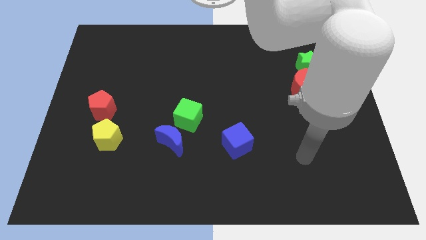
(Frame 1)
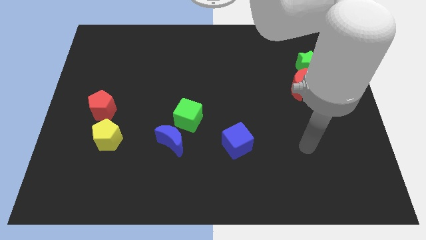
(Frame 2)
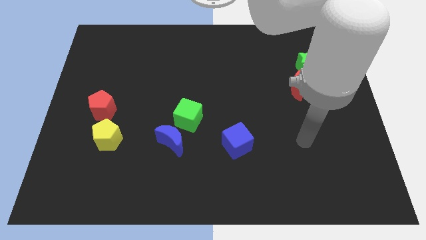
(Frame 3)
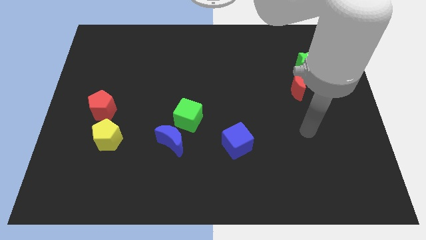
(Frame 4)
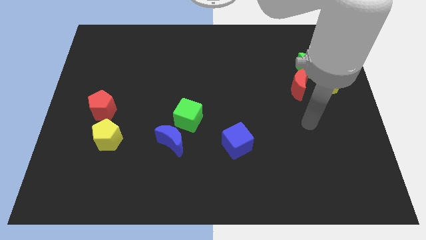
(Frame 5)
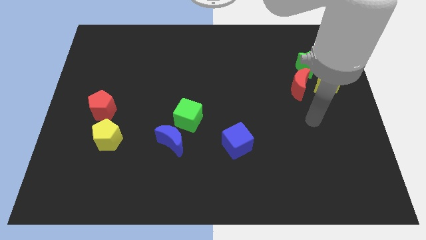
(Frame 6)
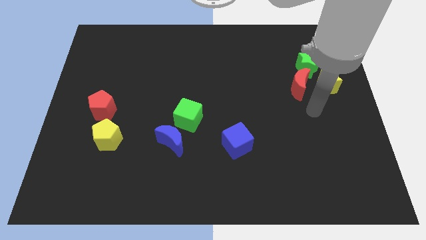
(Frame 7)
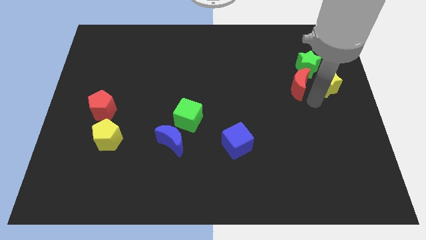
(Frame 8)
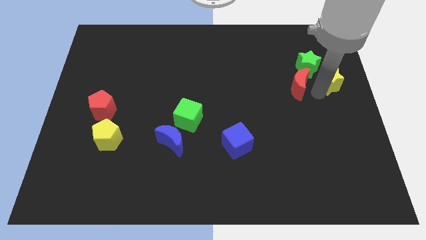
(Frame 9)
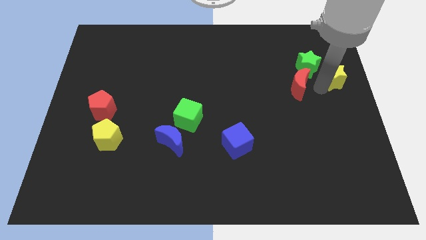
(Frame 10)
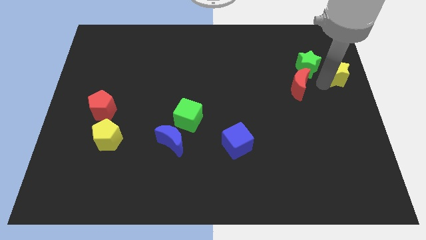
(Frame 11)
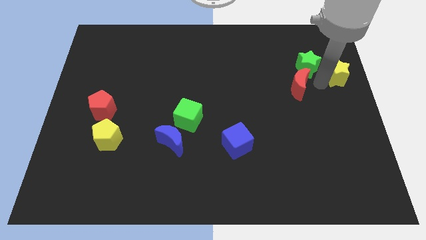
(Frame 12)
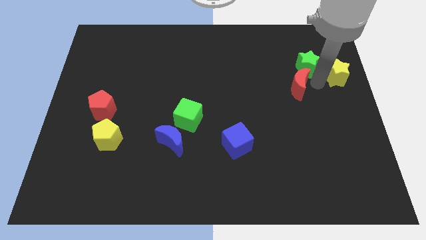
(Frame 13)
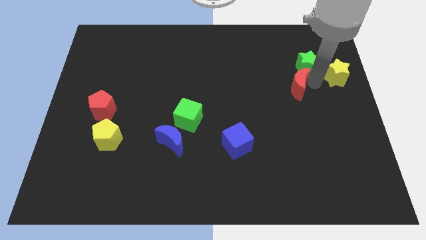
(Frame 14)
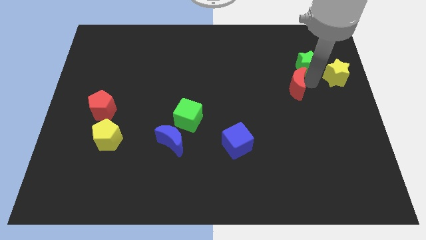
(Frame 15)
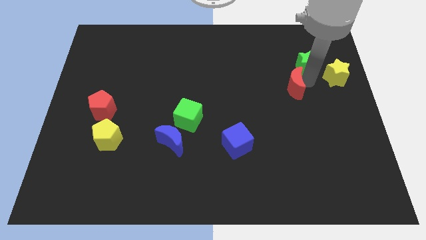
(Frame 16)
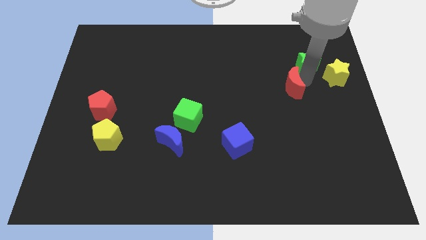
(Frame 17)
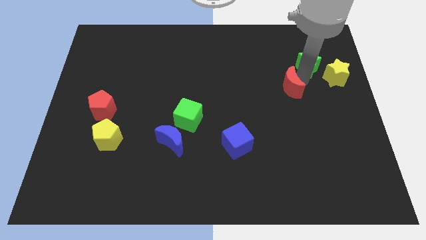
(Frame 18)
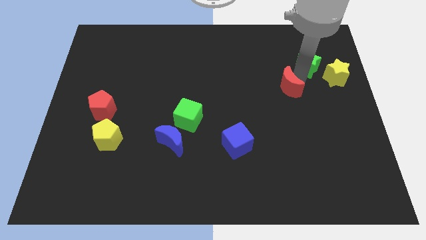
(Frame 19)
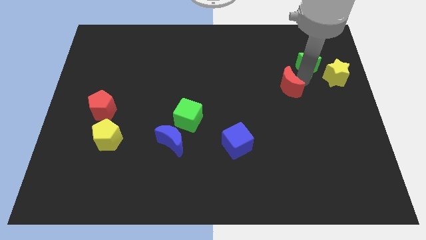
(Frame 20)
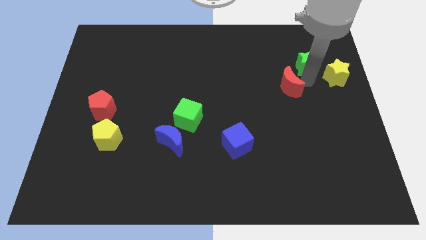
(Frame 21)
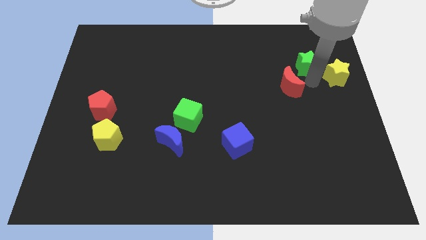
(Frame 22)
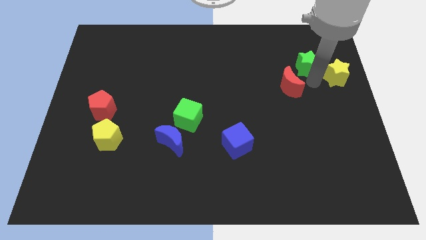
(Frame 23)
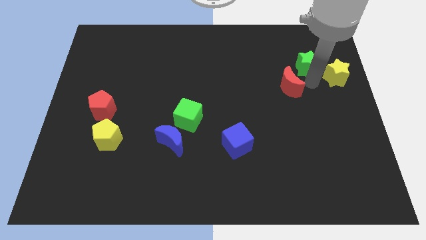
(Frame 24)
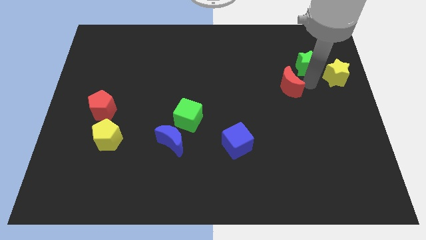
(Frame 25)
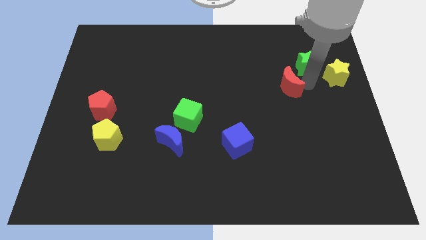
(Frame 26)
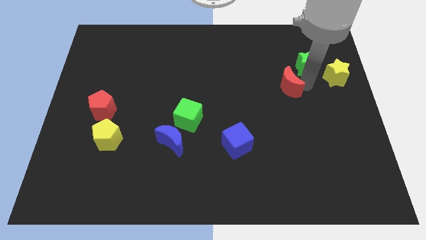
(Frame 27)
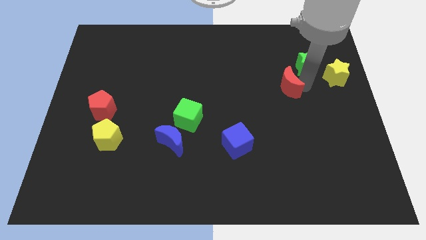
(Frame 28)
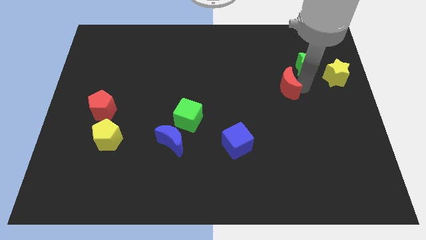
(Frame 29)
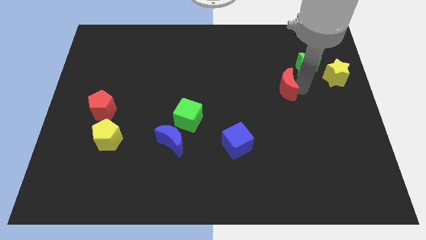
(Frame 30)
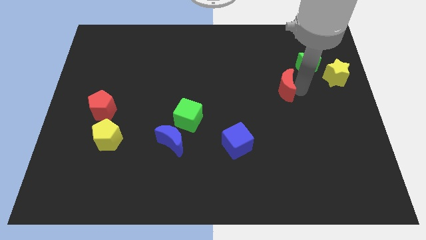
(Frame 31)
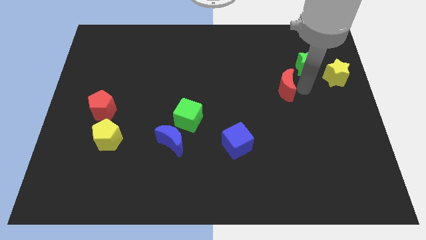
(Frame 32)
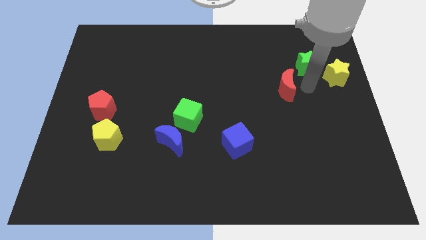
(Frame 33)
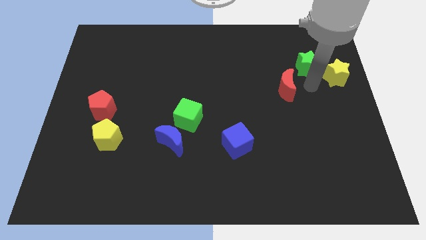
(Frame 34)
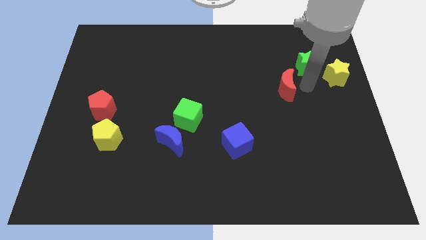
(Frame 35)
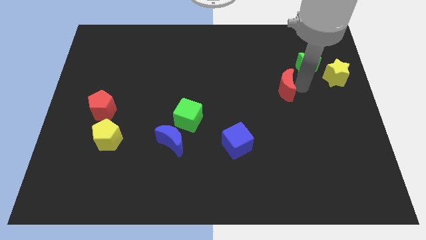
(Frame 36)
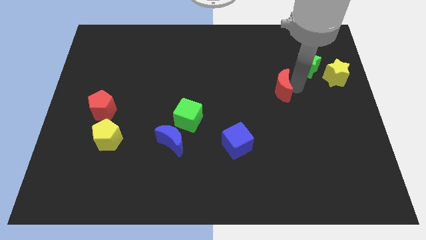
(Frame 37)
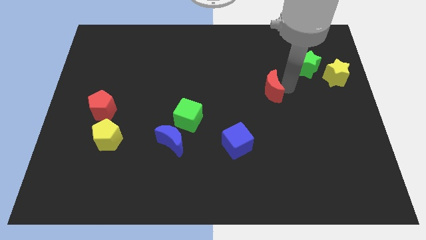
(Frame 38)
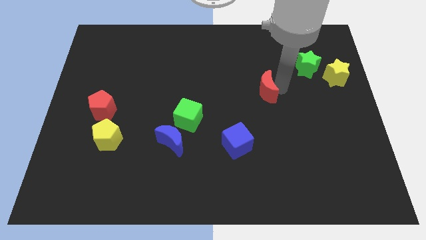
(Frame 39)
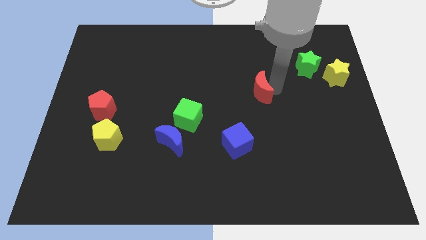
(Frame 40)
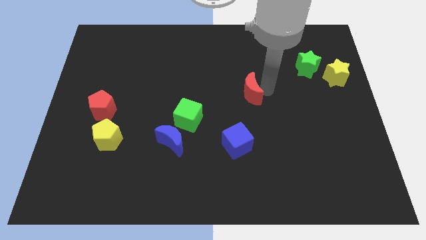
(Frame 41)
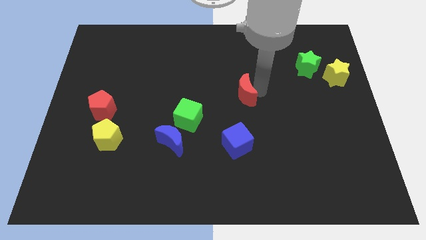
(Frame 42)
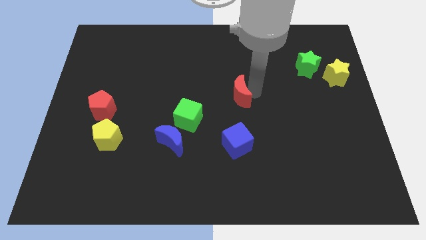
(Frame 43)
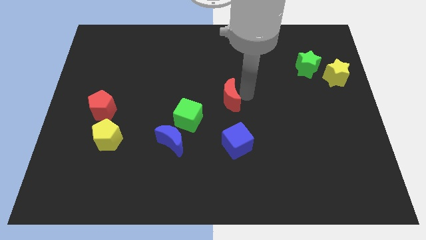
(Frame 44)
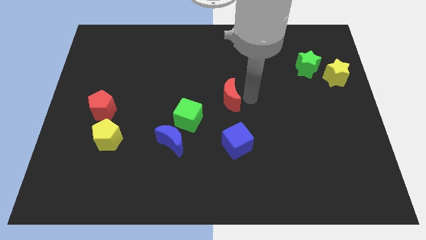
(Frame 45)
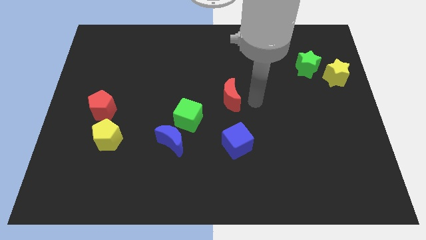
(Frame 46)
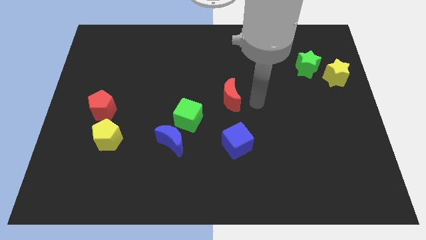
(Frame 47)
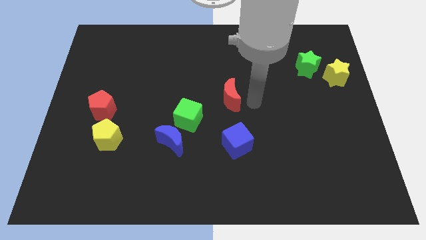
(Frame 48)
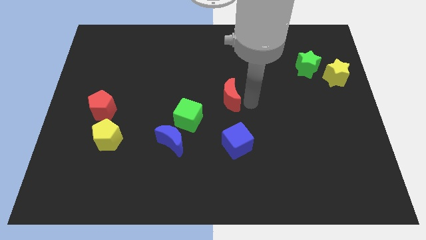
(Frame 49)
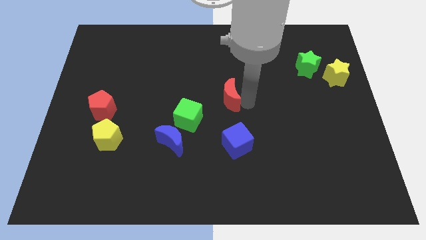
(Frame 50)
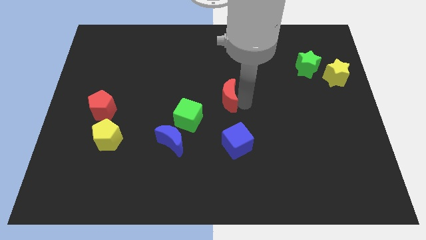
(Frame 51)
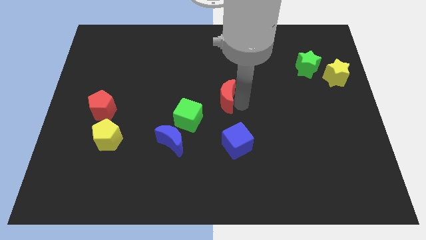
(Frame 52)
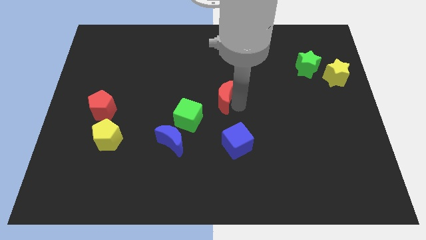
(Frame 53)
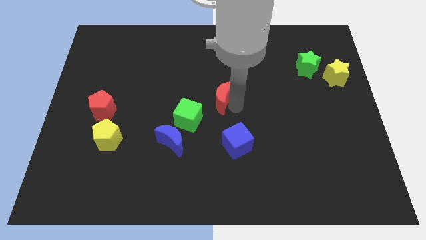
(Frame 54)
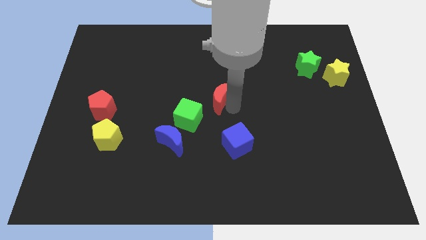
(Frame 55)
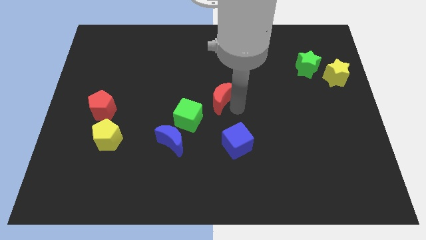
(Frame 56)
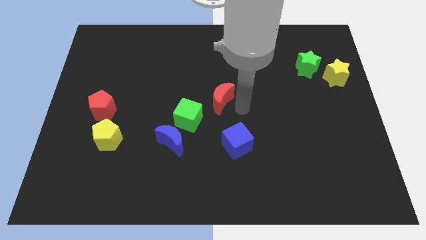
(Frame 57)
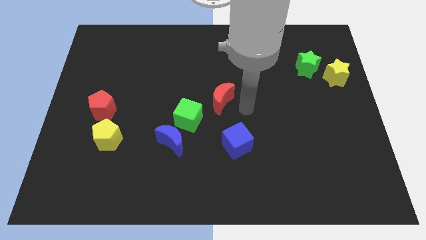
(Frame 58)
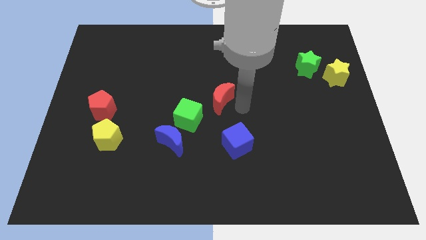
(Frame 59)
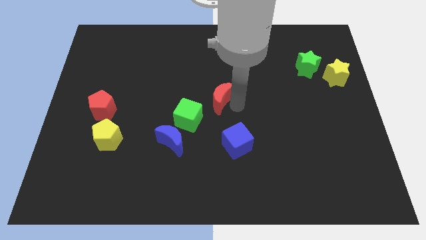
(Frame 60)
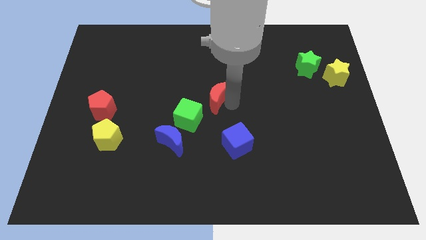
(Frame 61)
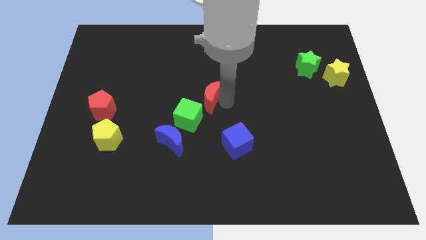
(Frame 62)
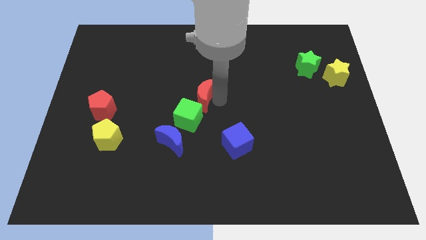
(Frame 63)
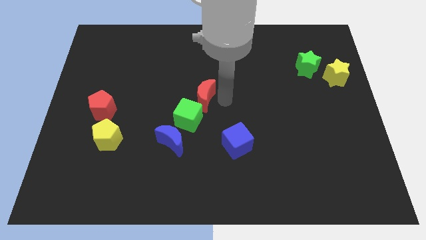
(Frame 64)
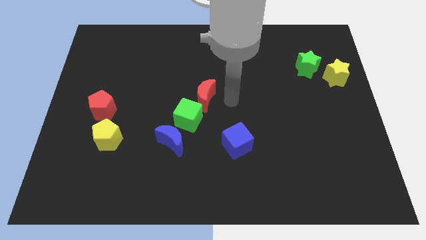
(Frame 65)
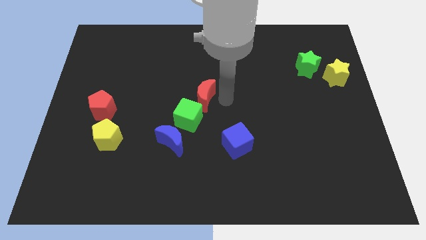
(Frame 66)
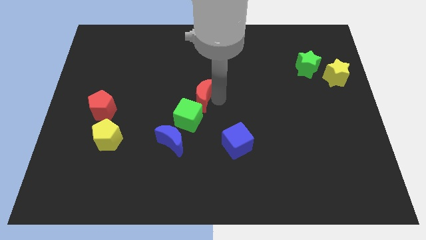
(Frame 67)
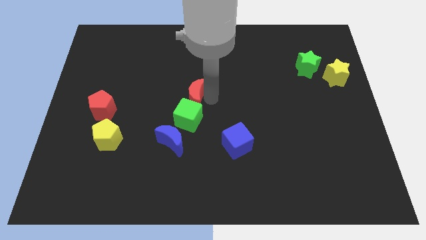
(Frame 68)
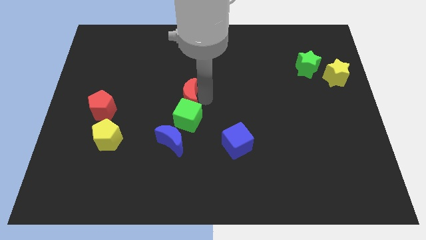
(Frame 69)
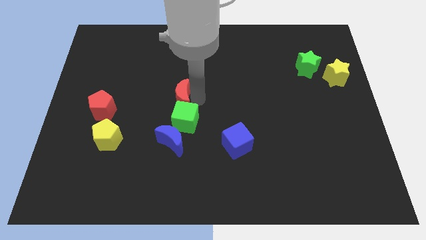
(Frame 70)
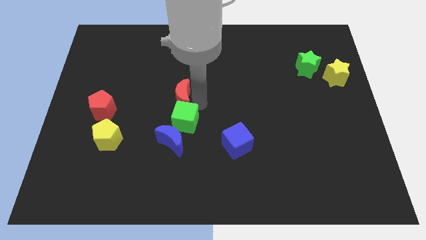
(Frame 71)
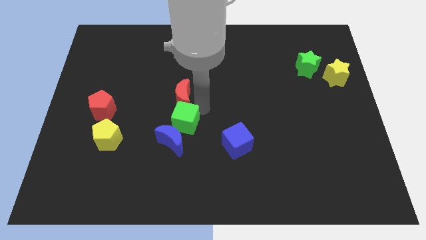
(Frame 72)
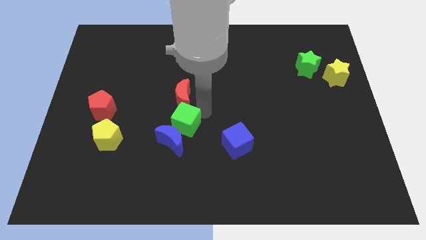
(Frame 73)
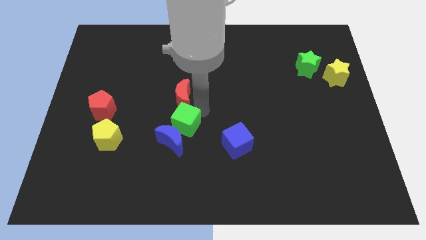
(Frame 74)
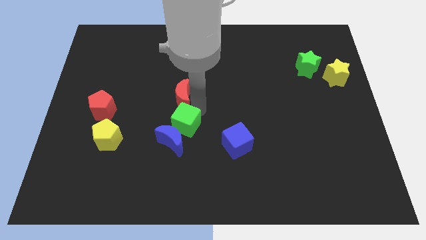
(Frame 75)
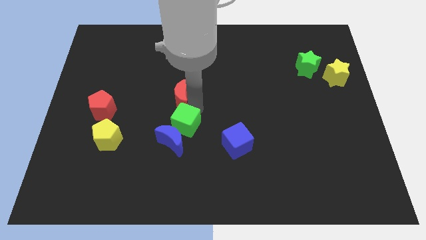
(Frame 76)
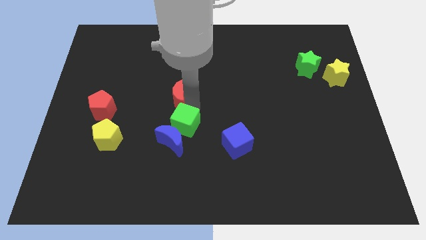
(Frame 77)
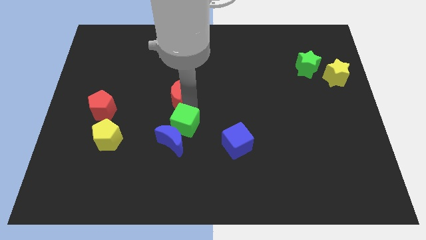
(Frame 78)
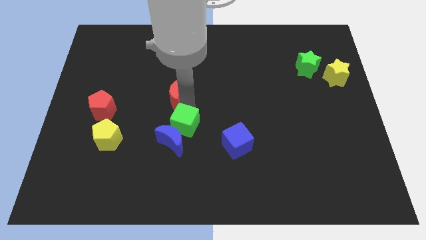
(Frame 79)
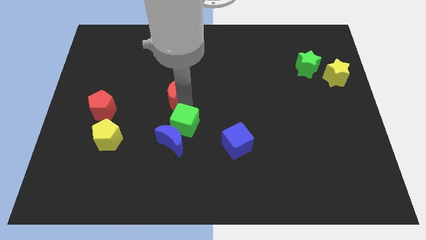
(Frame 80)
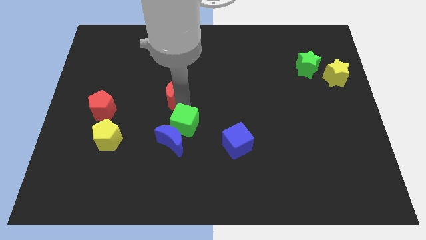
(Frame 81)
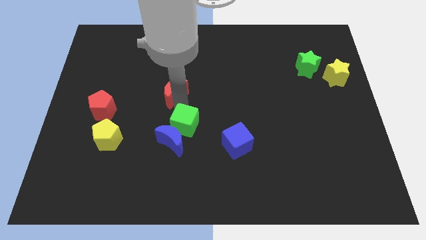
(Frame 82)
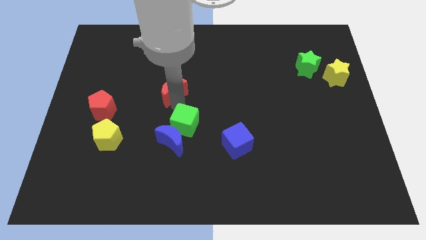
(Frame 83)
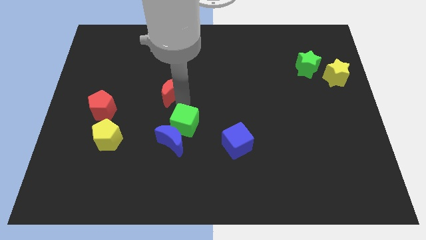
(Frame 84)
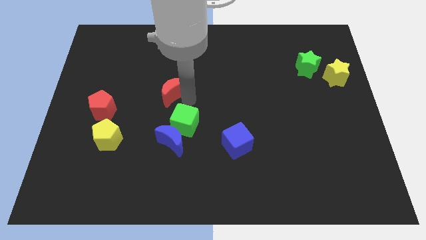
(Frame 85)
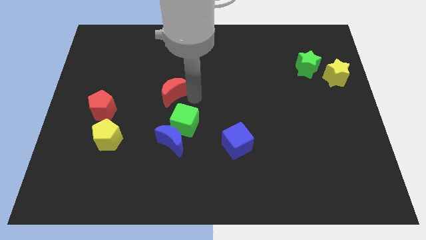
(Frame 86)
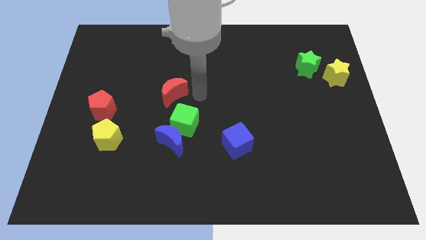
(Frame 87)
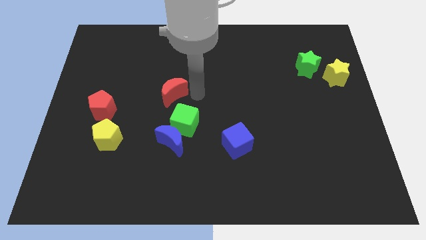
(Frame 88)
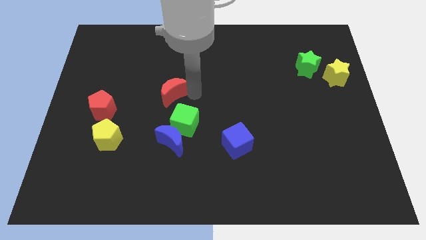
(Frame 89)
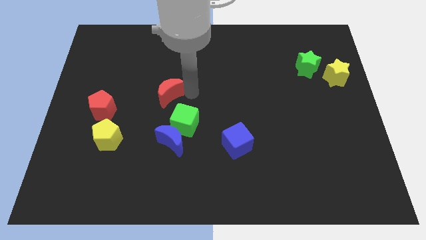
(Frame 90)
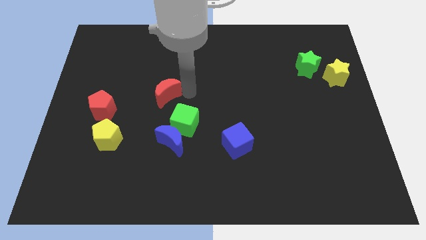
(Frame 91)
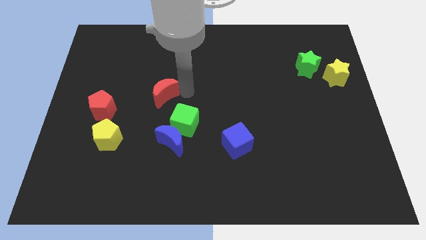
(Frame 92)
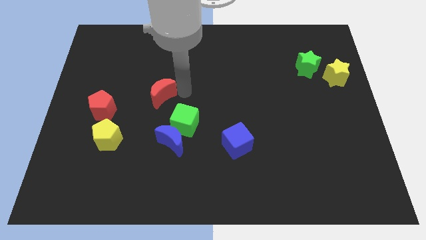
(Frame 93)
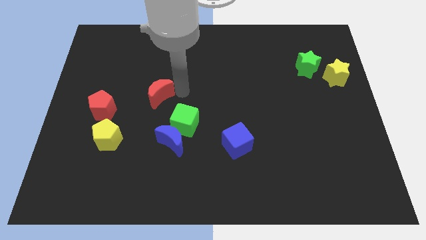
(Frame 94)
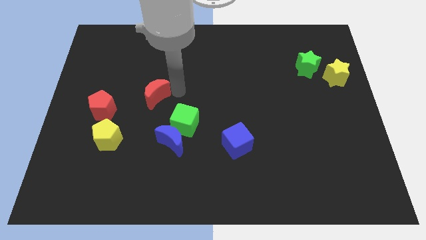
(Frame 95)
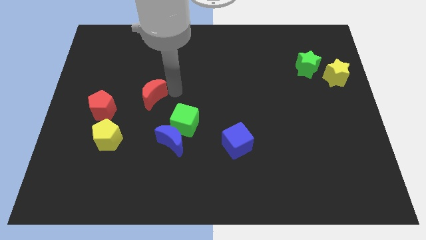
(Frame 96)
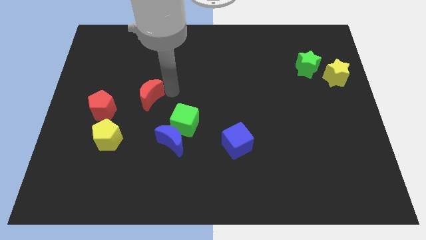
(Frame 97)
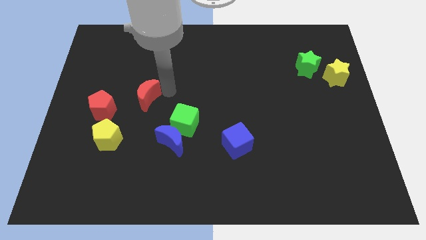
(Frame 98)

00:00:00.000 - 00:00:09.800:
push the red moon diagonally up and to the right of the red pentagon
